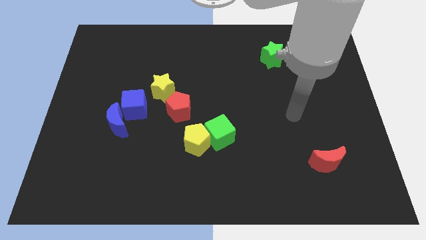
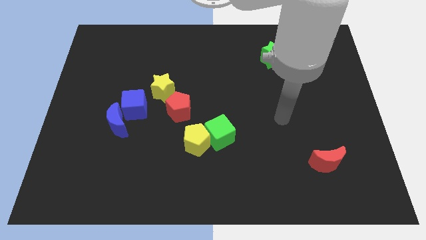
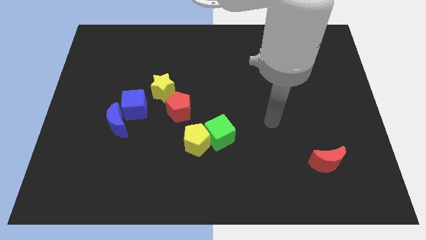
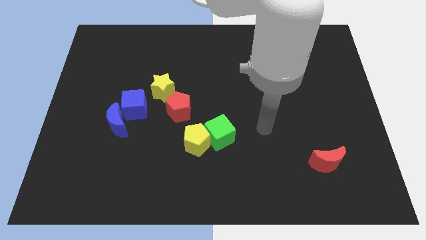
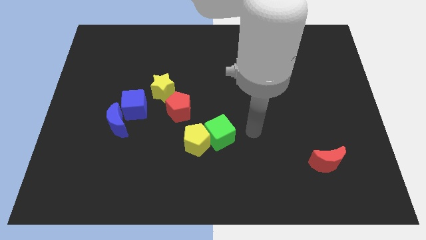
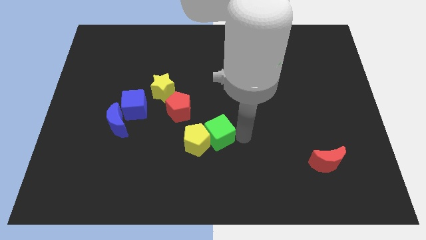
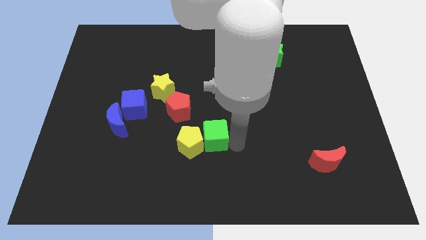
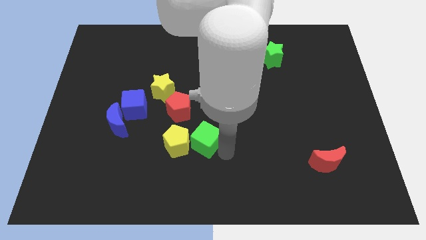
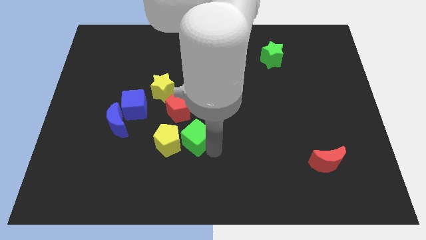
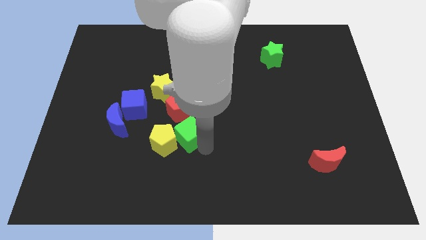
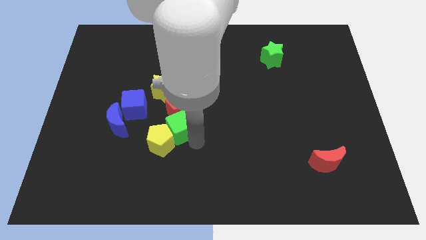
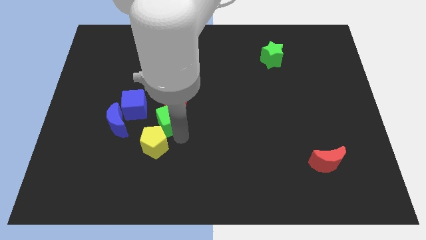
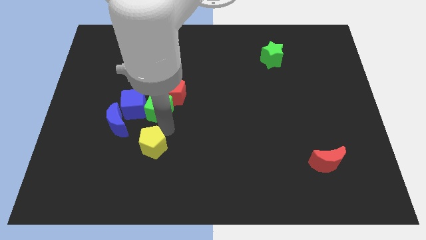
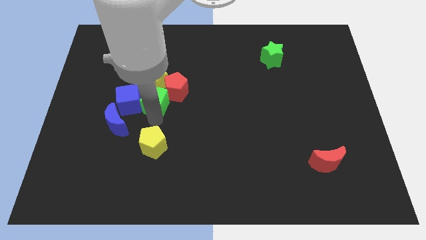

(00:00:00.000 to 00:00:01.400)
pull the green cube apart from the yellow pentagon

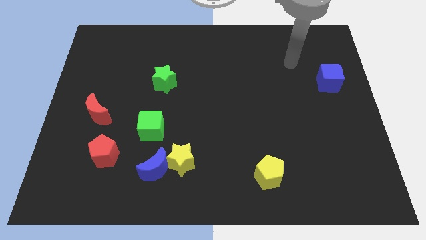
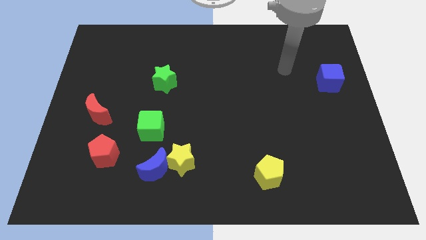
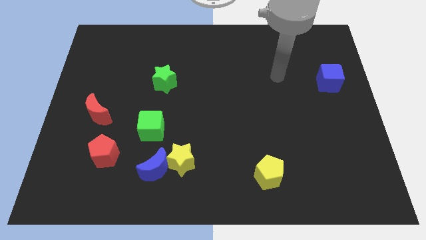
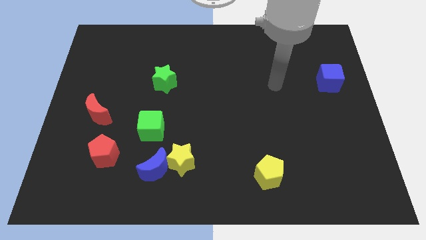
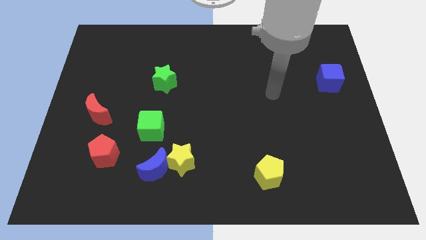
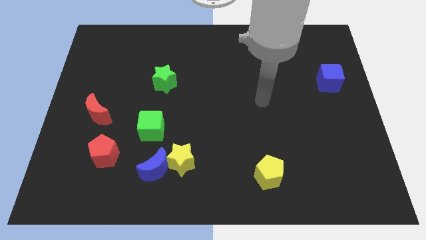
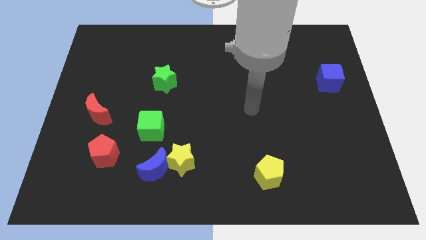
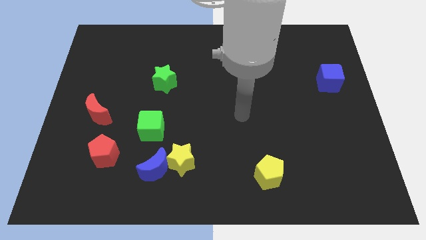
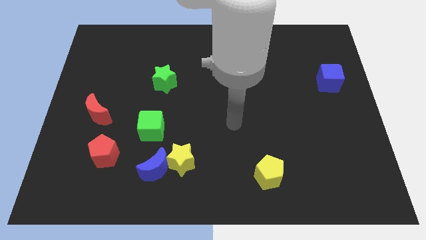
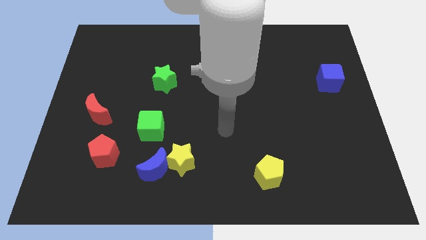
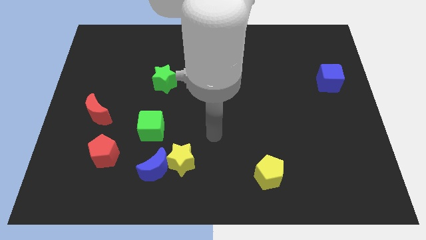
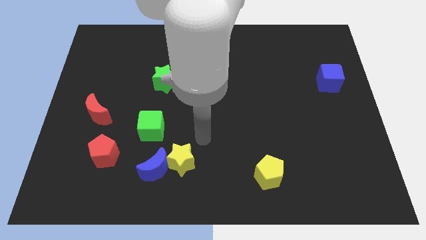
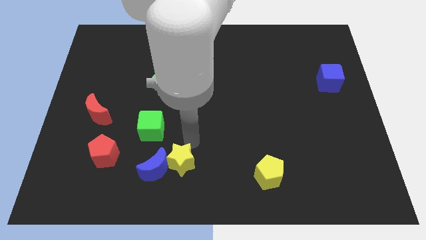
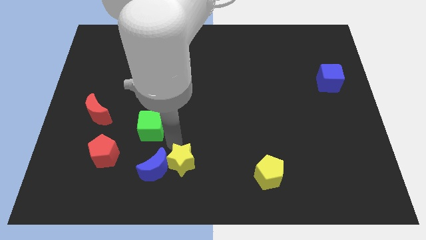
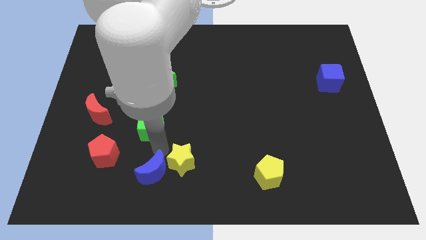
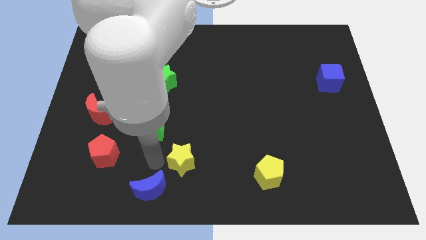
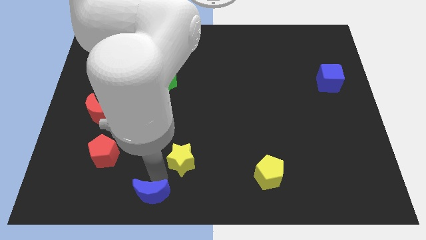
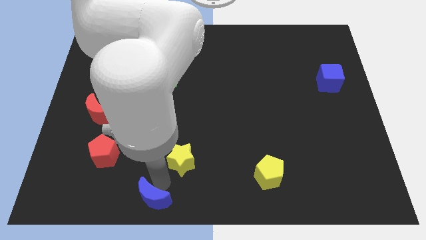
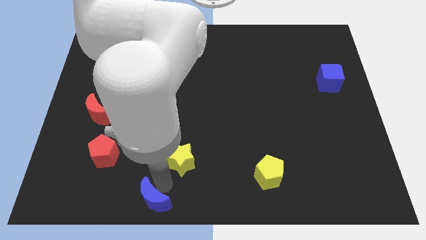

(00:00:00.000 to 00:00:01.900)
pull the yellow star apart from the blue moon

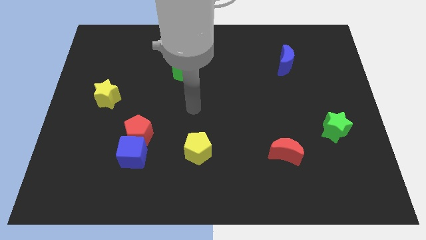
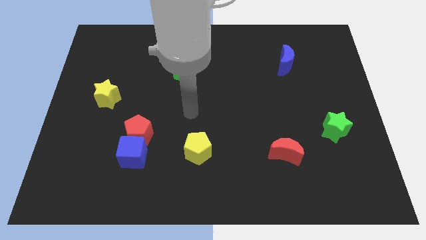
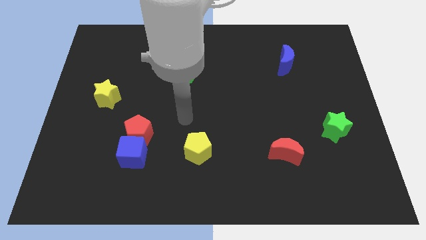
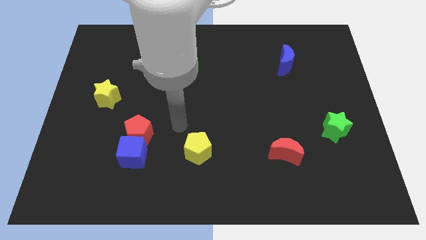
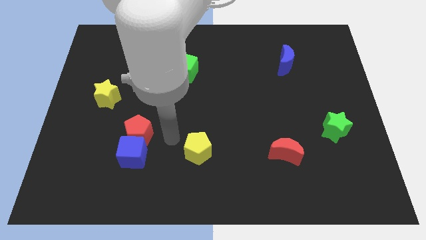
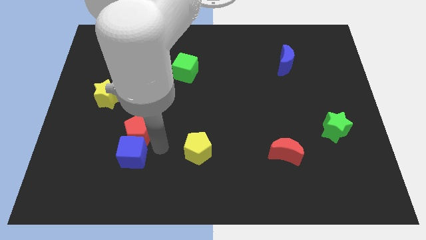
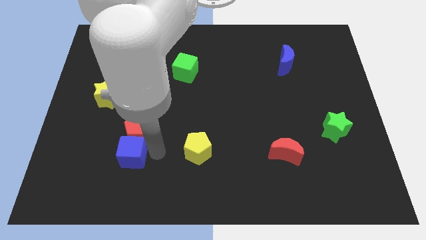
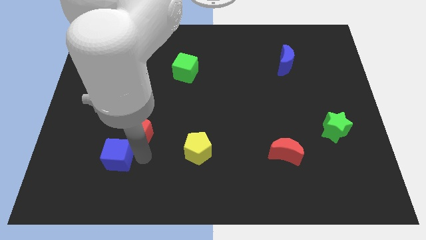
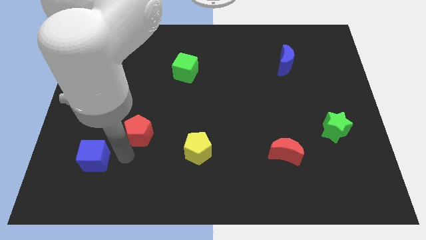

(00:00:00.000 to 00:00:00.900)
separate the red pentagon from the blue cube

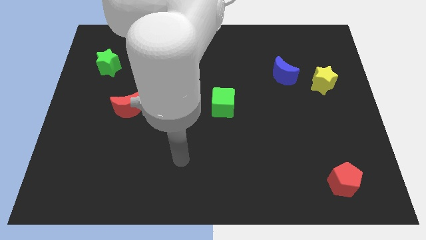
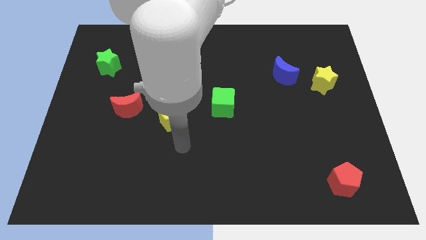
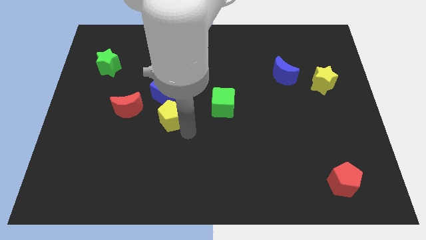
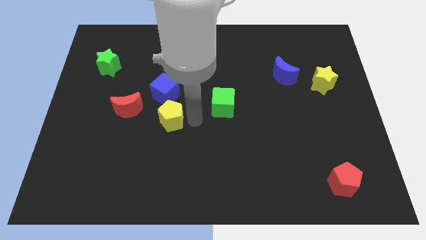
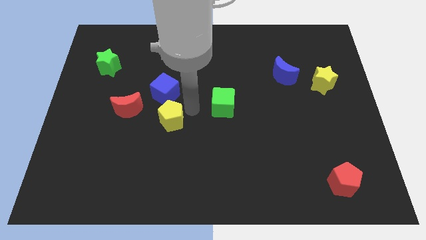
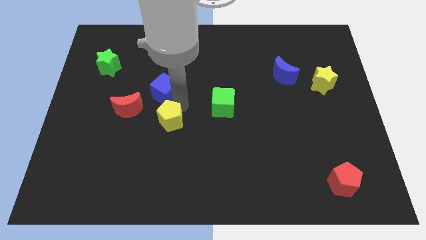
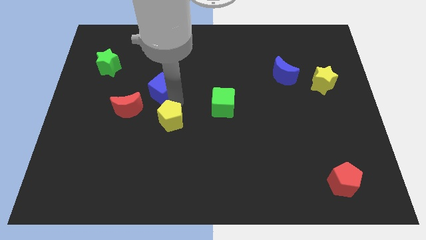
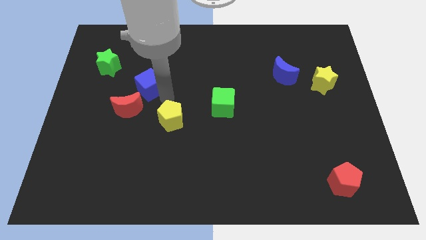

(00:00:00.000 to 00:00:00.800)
separate the yellow pentagon from the blue cube

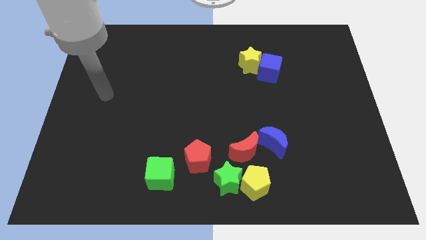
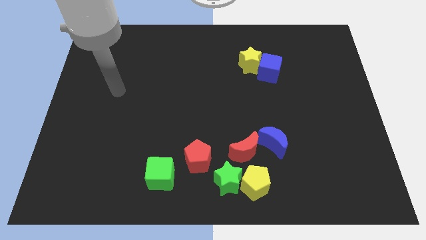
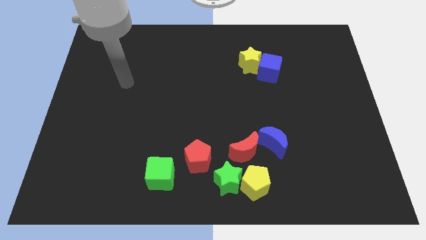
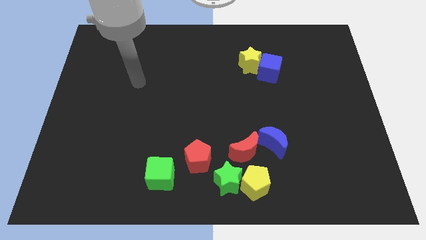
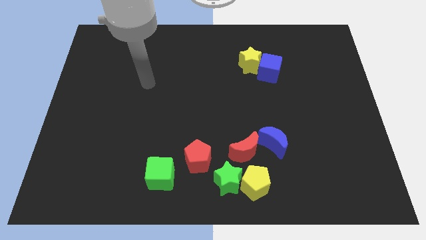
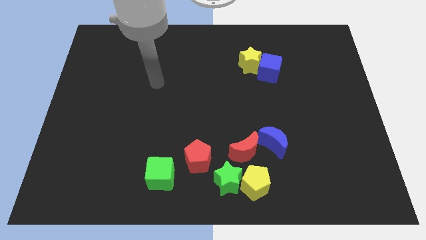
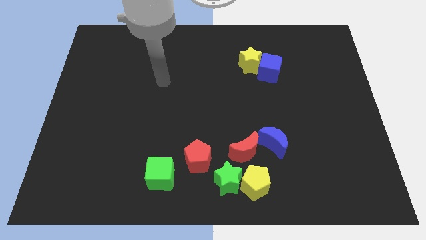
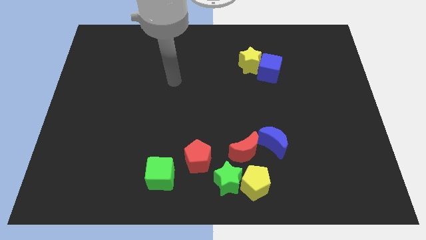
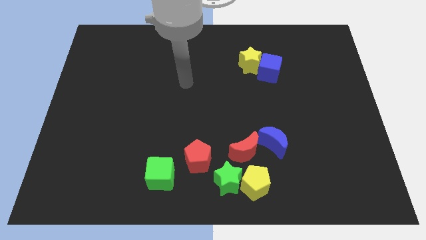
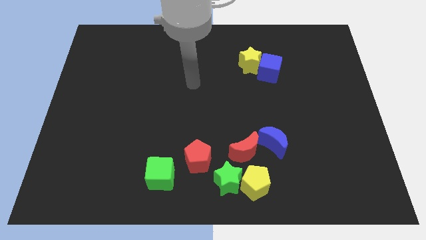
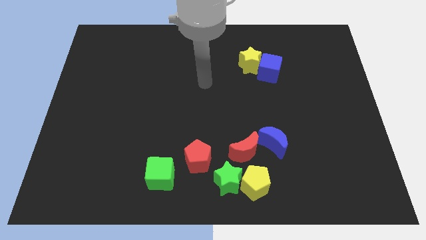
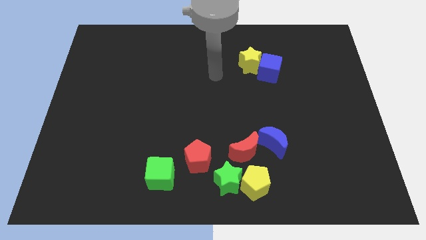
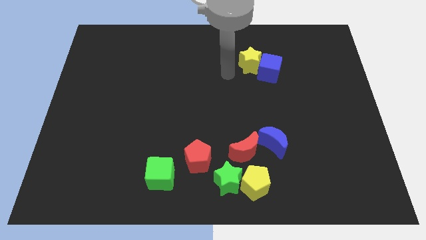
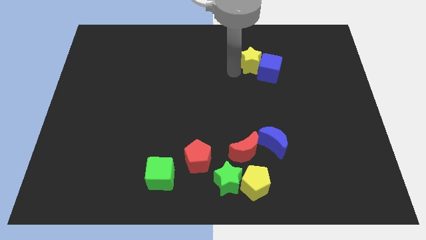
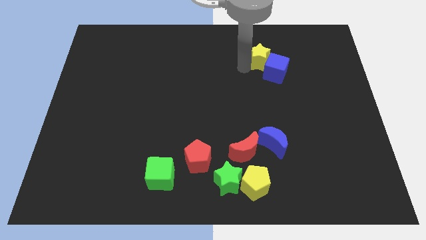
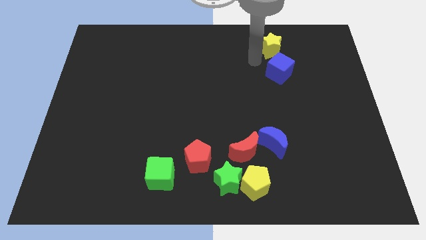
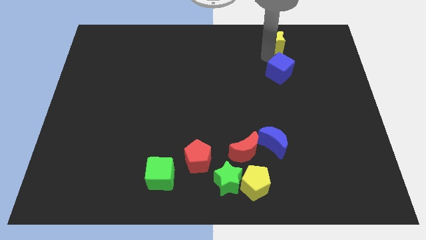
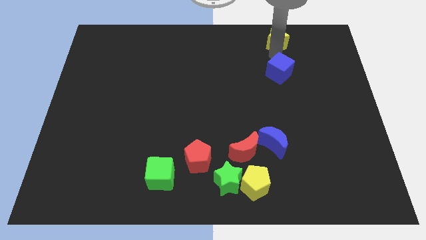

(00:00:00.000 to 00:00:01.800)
move the blue cube away from the yellow star

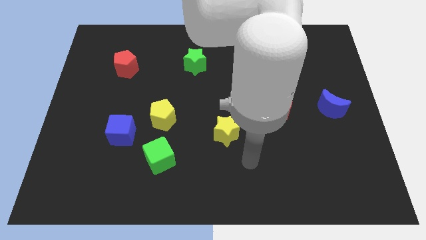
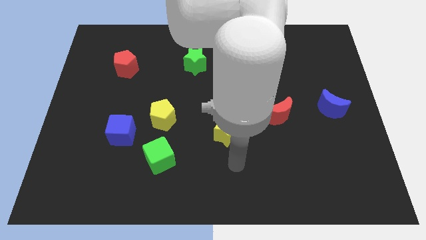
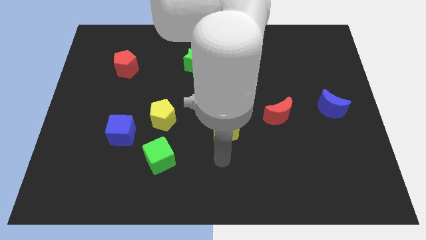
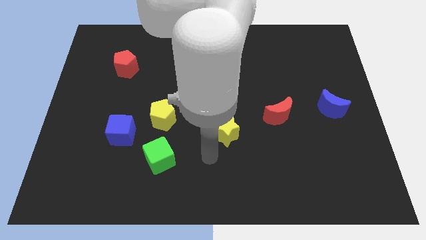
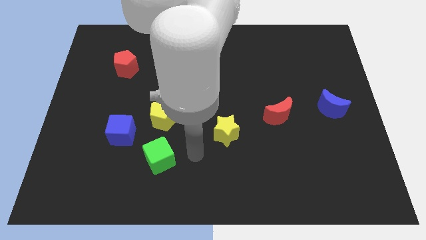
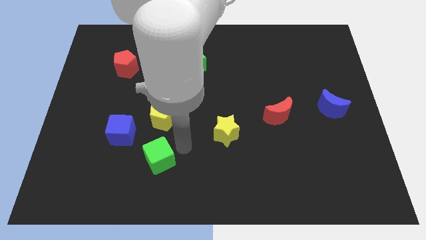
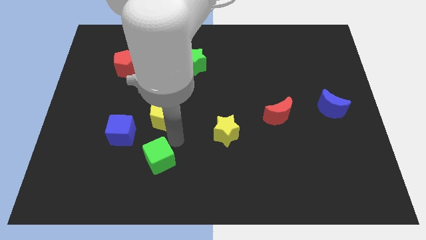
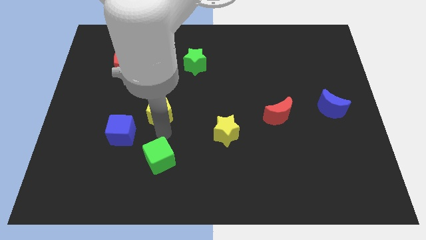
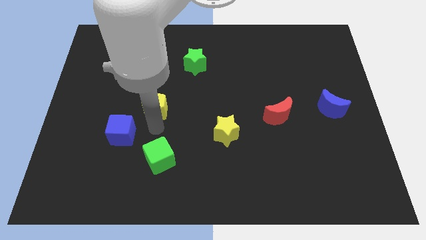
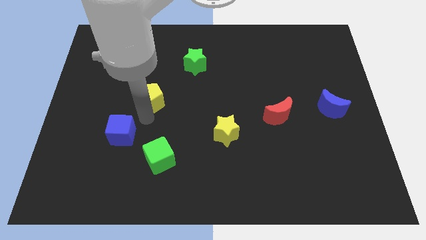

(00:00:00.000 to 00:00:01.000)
pull the blue cube apart from the yellow pentagon

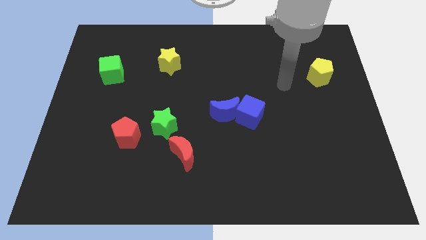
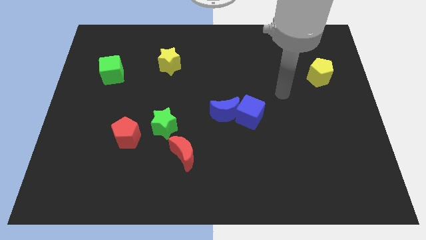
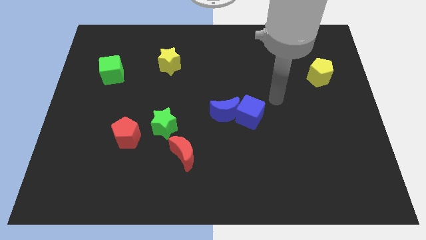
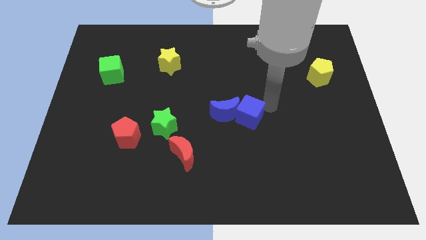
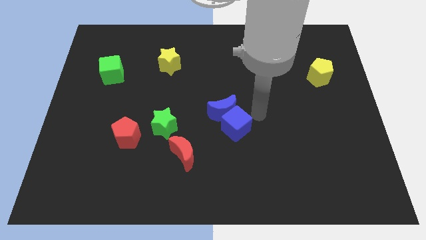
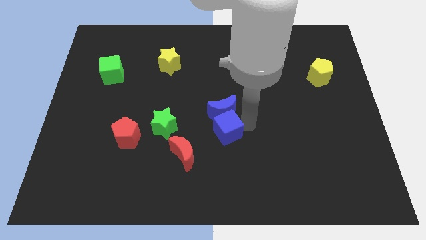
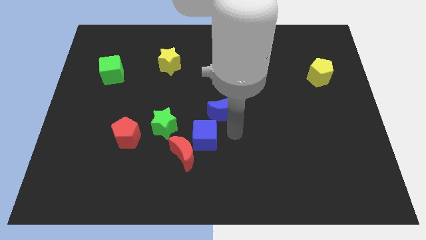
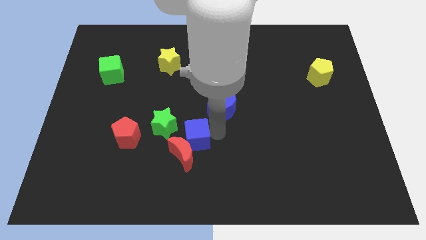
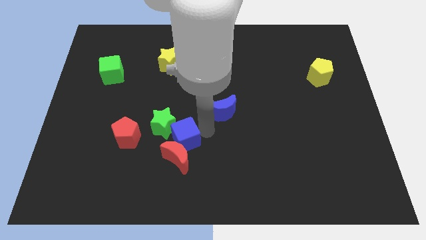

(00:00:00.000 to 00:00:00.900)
pull the blue moon apart from the blue cube

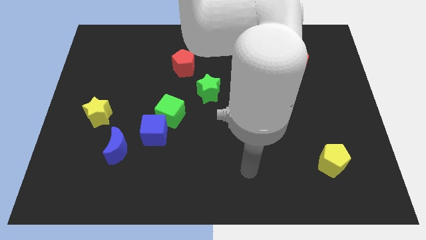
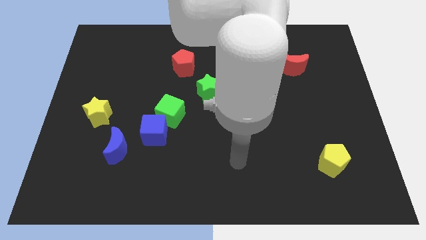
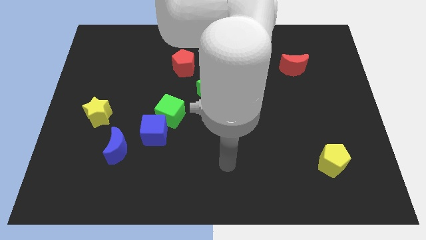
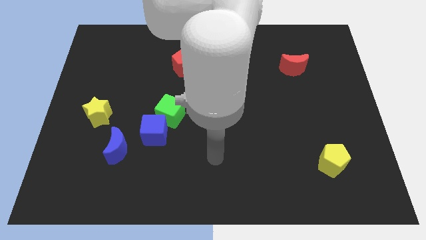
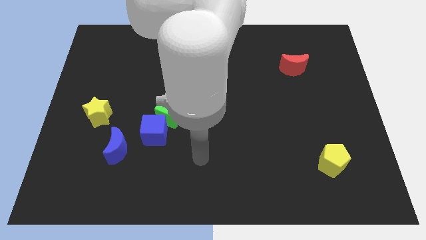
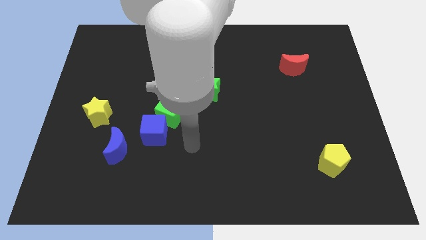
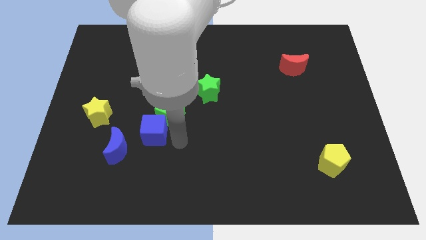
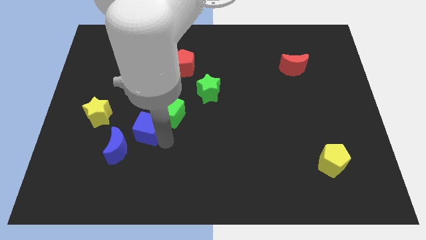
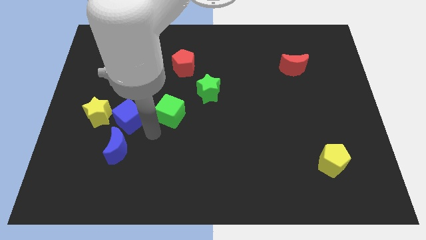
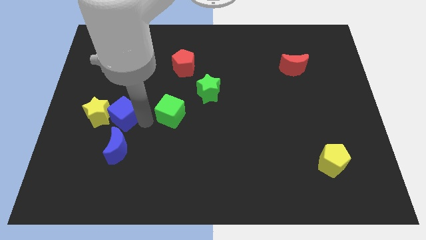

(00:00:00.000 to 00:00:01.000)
move the green cube away from the blue cube
